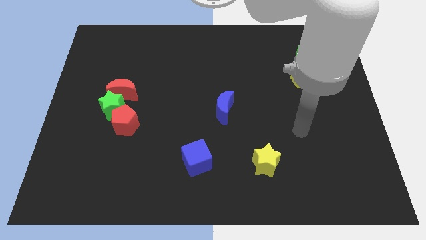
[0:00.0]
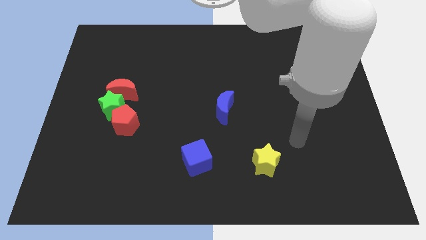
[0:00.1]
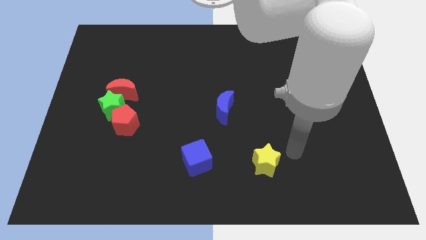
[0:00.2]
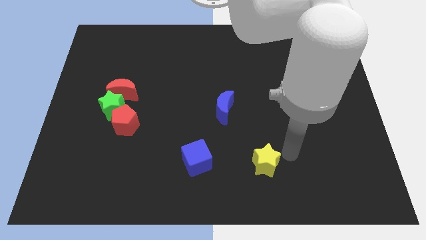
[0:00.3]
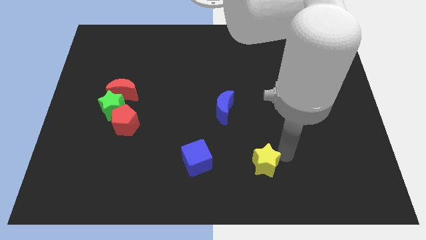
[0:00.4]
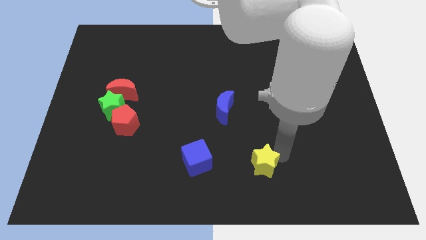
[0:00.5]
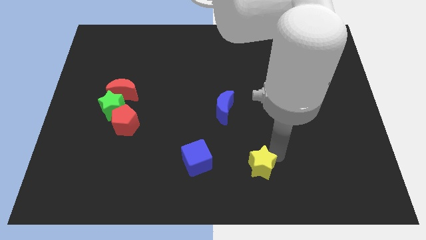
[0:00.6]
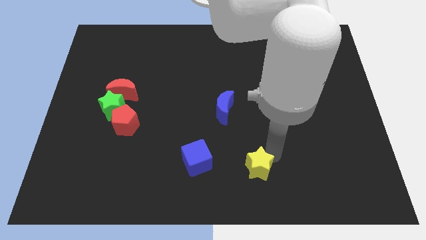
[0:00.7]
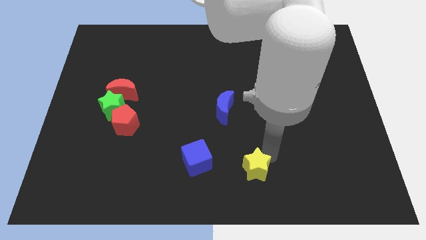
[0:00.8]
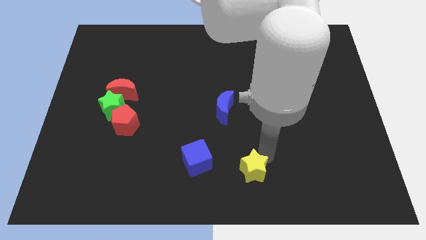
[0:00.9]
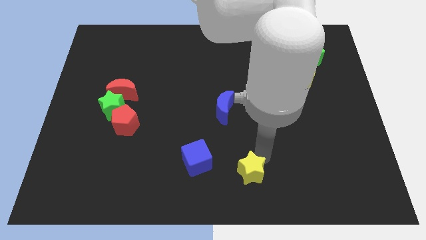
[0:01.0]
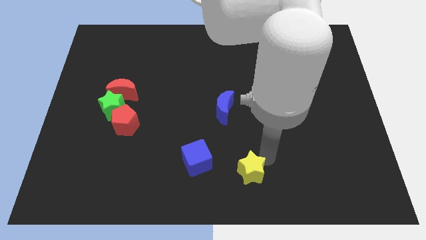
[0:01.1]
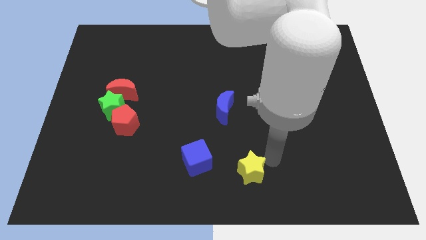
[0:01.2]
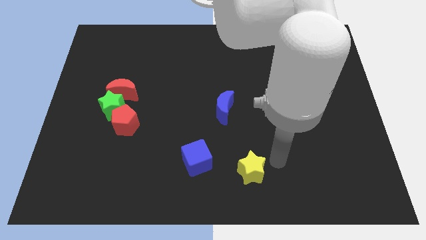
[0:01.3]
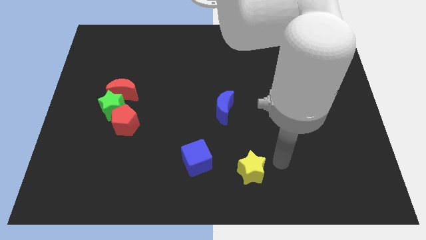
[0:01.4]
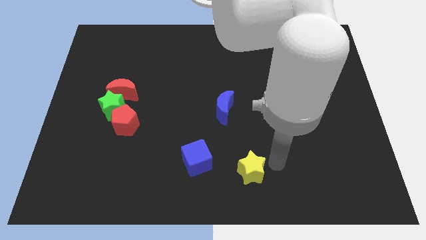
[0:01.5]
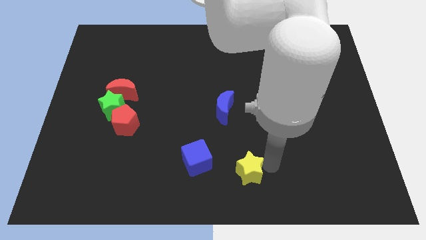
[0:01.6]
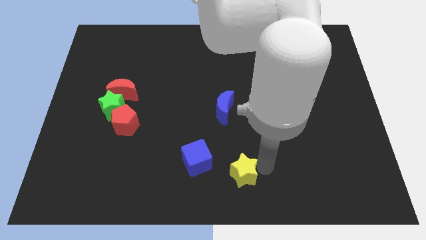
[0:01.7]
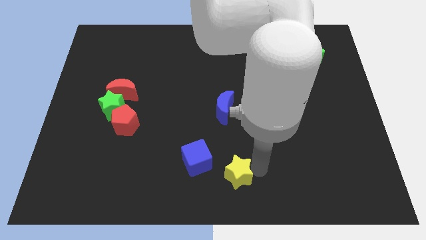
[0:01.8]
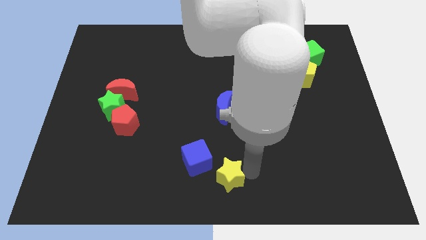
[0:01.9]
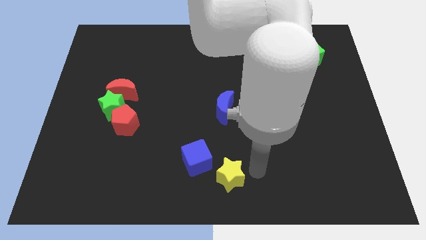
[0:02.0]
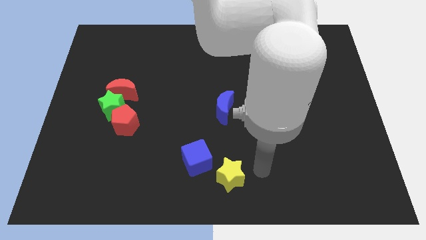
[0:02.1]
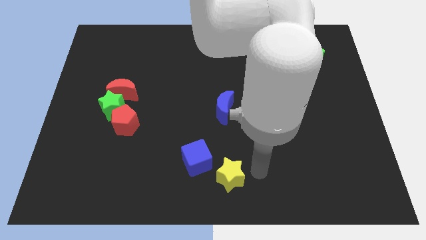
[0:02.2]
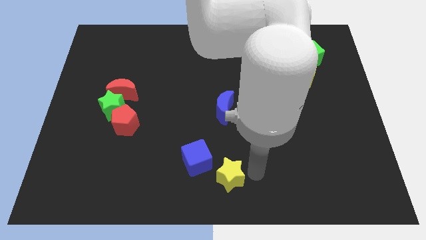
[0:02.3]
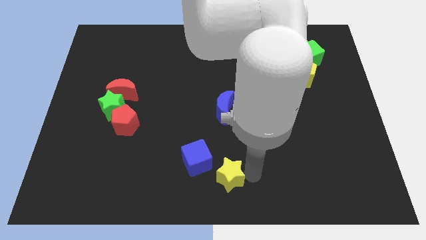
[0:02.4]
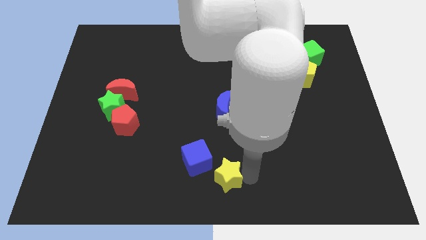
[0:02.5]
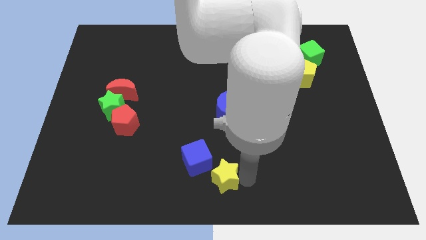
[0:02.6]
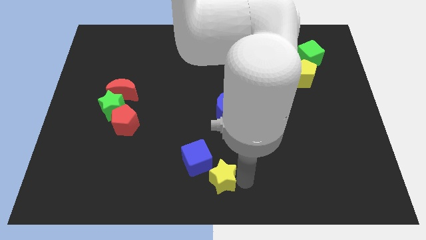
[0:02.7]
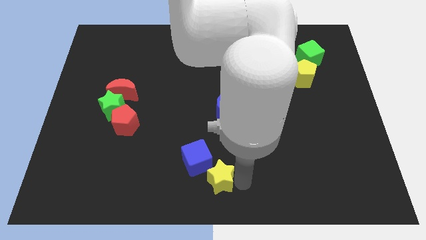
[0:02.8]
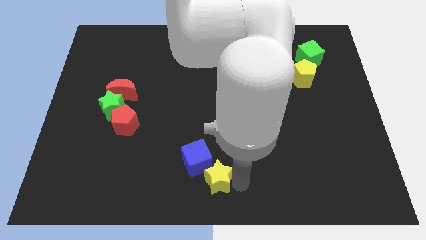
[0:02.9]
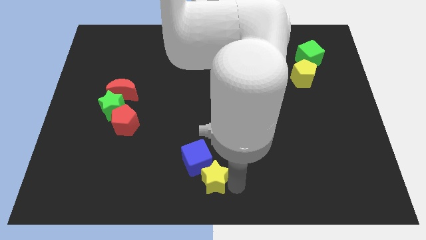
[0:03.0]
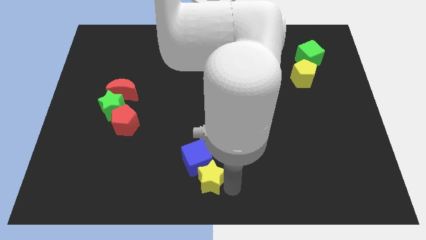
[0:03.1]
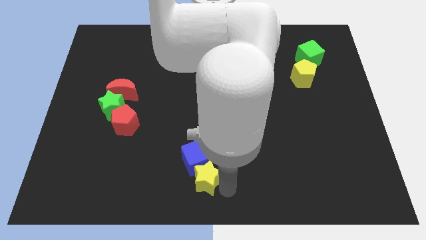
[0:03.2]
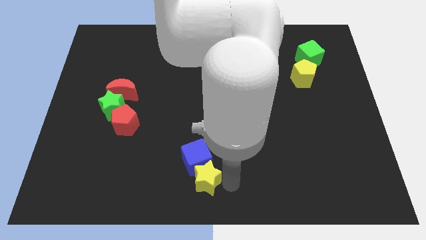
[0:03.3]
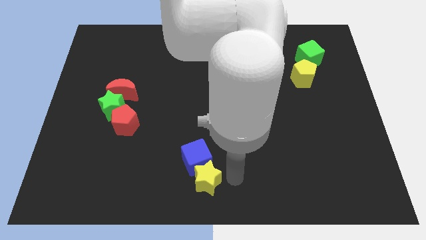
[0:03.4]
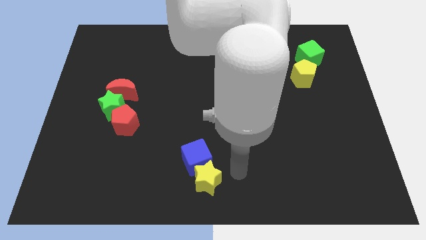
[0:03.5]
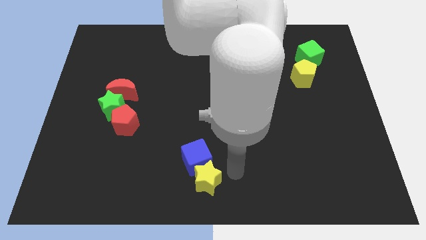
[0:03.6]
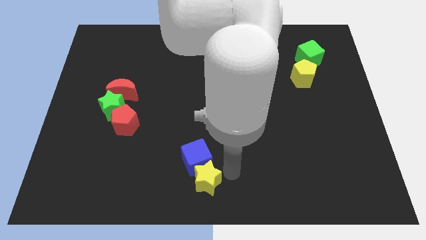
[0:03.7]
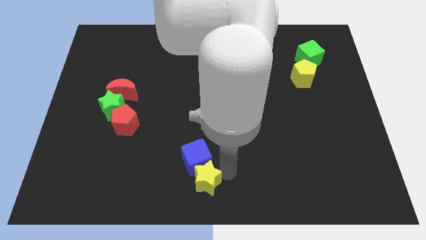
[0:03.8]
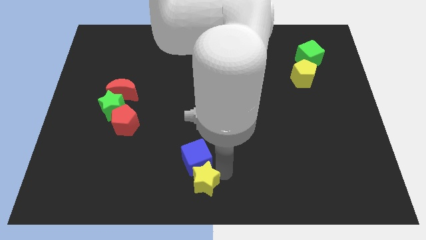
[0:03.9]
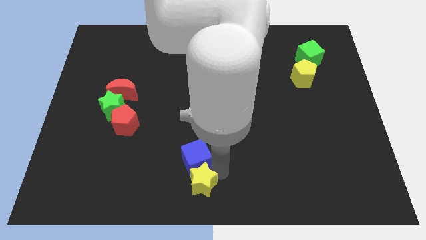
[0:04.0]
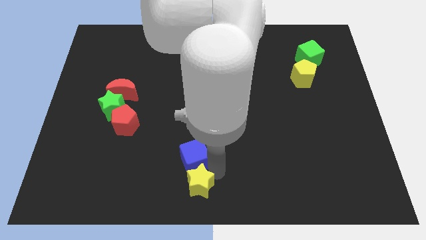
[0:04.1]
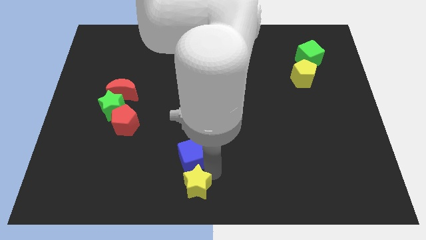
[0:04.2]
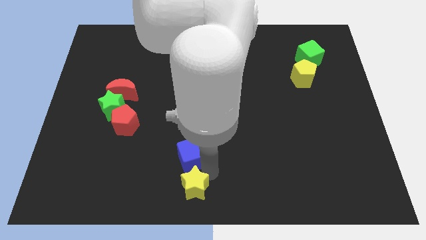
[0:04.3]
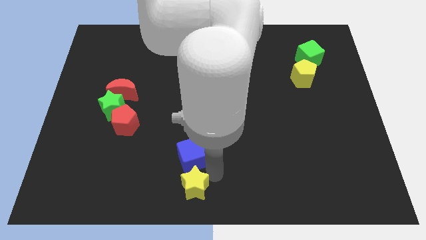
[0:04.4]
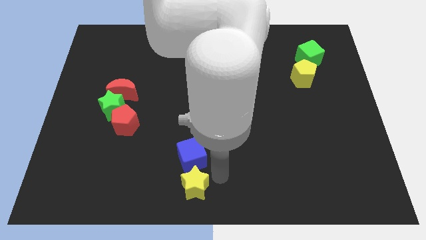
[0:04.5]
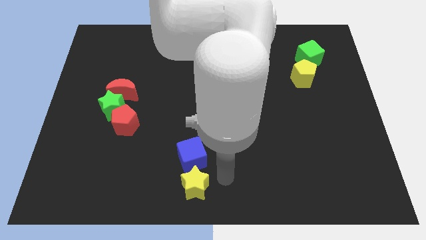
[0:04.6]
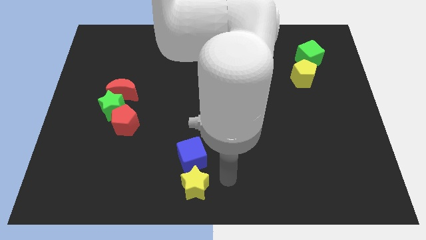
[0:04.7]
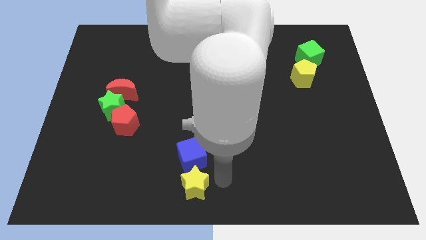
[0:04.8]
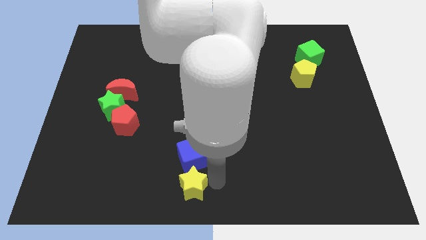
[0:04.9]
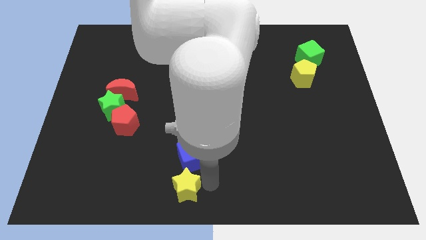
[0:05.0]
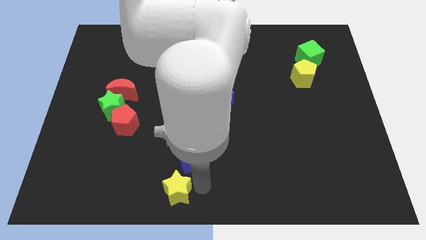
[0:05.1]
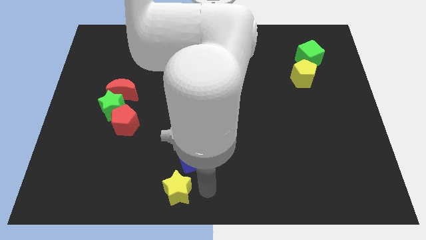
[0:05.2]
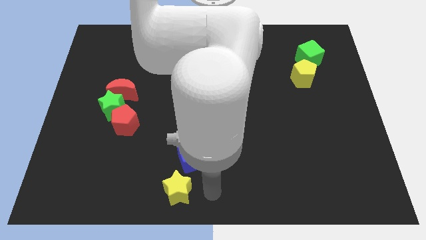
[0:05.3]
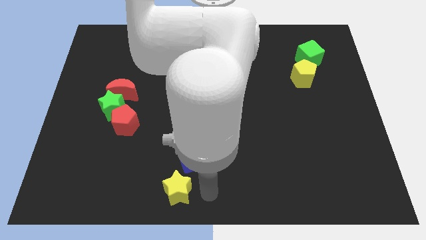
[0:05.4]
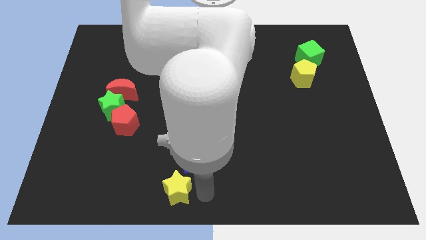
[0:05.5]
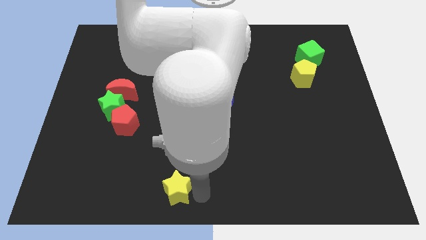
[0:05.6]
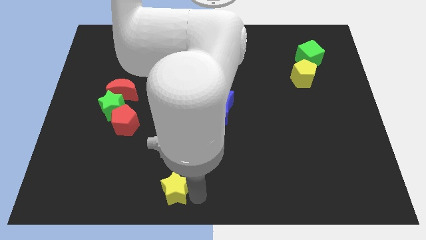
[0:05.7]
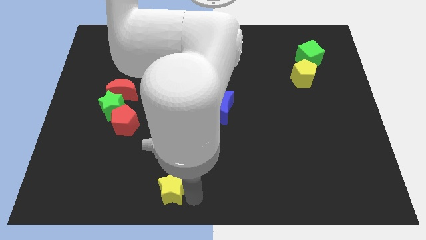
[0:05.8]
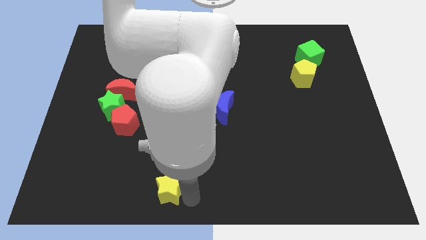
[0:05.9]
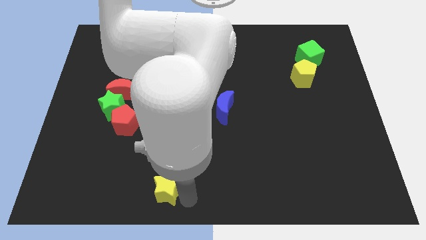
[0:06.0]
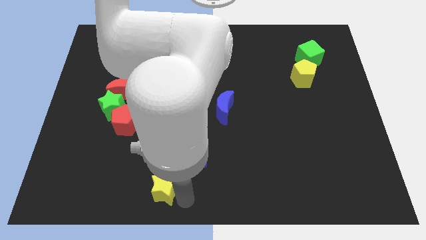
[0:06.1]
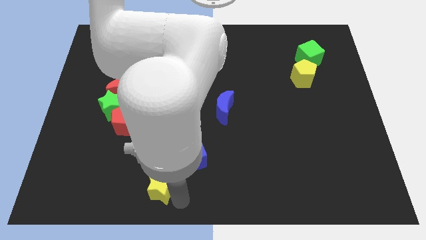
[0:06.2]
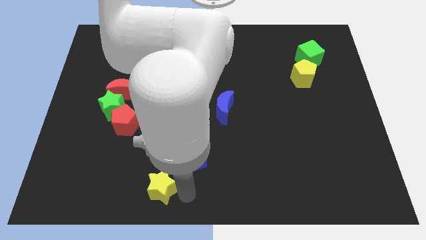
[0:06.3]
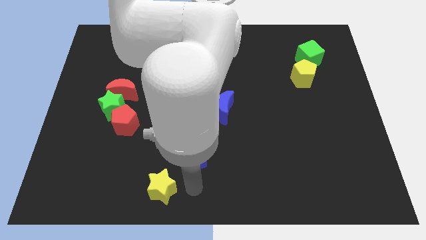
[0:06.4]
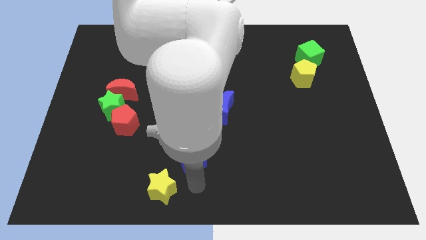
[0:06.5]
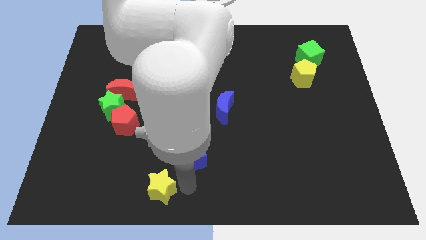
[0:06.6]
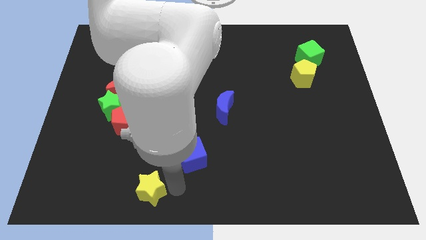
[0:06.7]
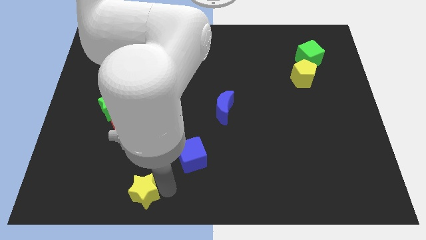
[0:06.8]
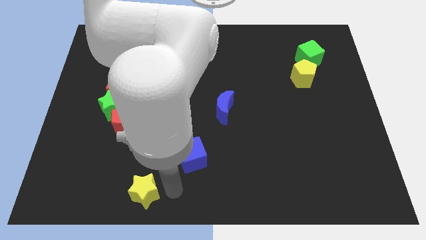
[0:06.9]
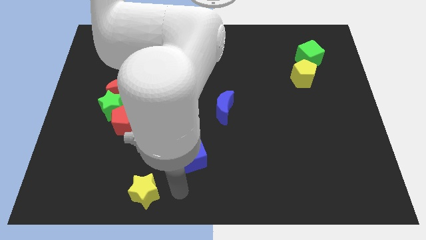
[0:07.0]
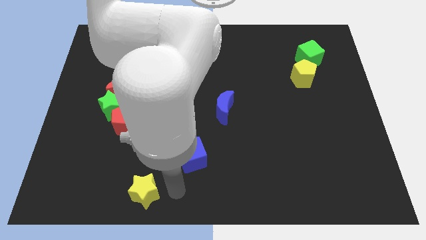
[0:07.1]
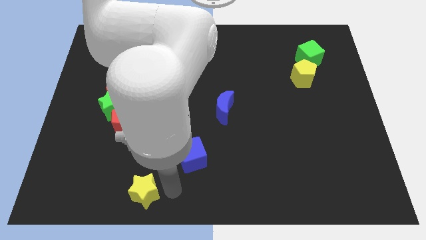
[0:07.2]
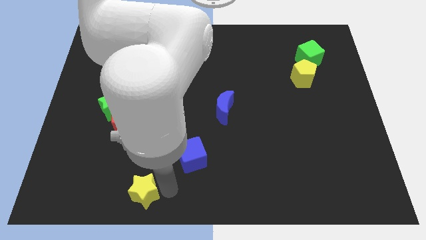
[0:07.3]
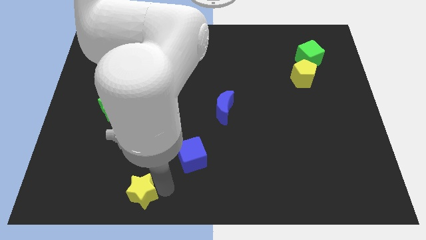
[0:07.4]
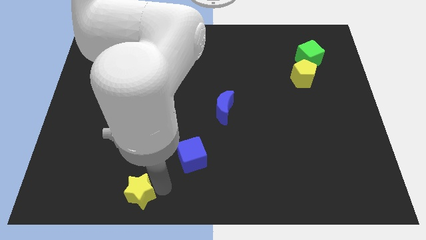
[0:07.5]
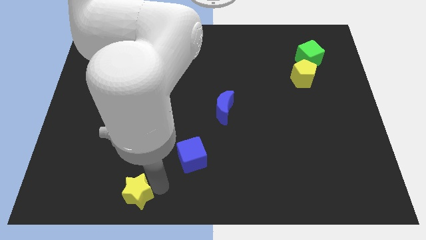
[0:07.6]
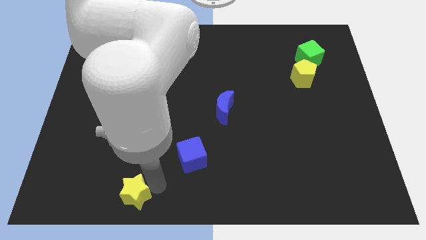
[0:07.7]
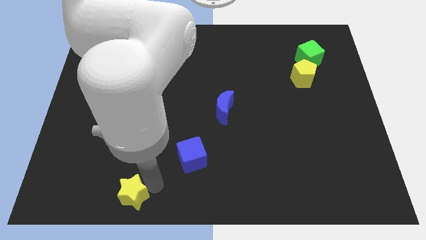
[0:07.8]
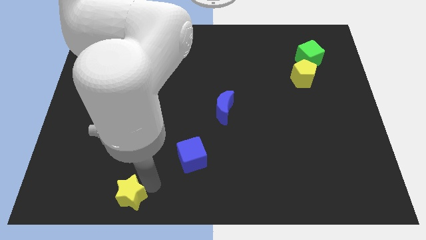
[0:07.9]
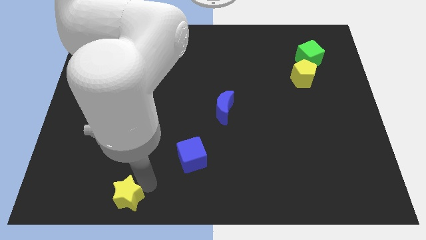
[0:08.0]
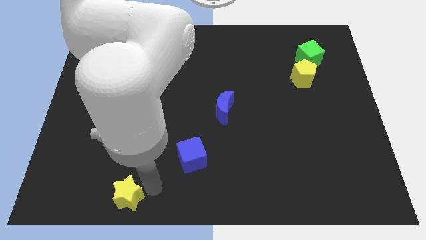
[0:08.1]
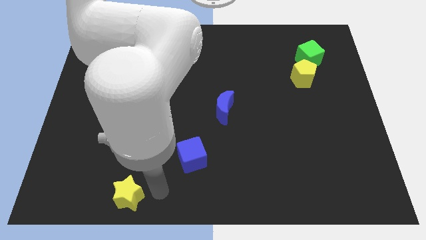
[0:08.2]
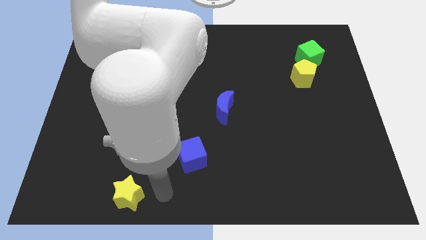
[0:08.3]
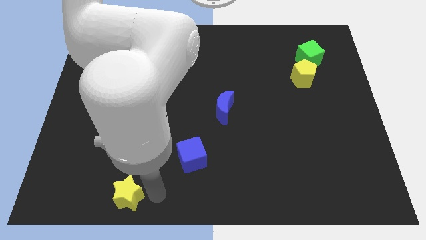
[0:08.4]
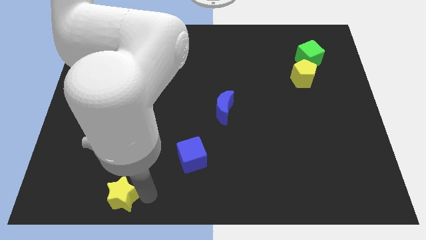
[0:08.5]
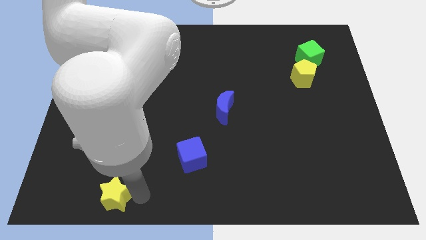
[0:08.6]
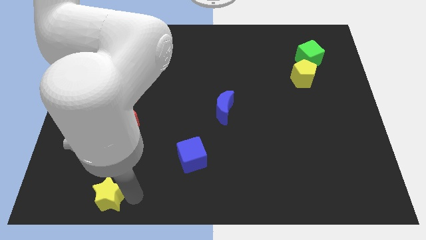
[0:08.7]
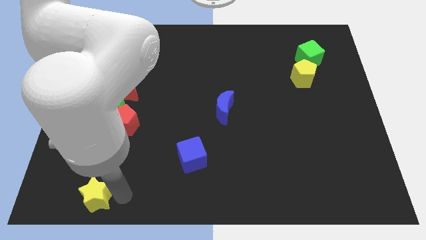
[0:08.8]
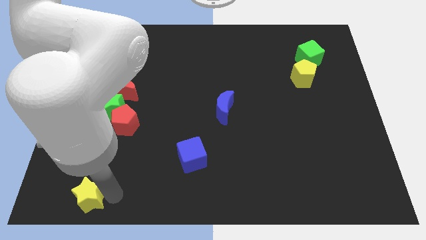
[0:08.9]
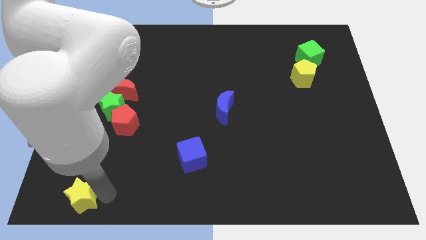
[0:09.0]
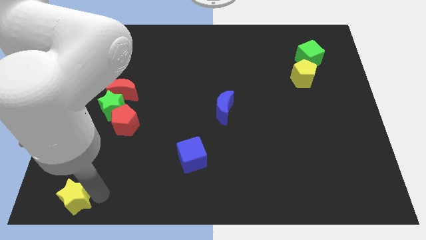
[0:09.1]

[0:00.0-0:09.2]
slide the yellow star to the bottom left
